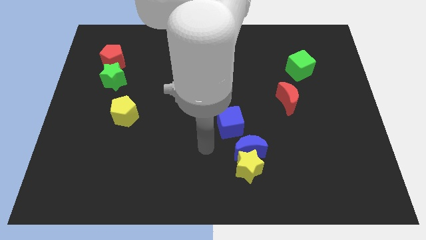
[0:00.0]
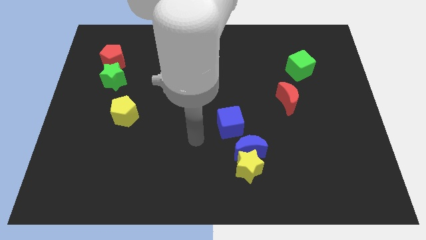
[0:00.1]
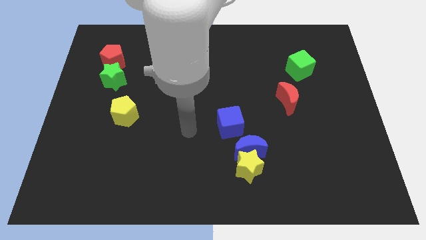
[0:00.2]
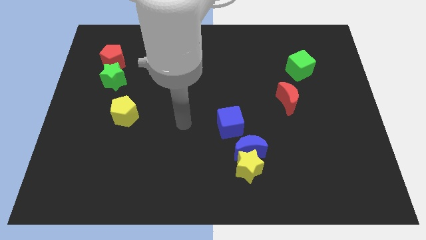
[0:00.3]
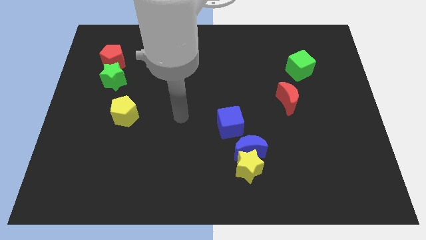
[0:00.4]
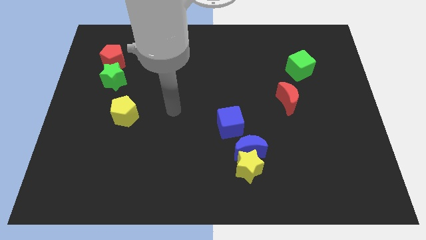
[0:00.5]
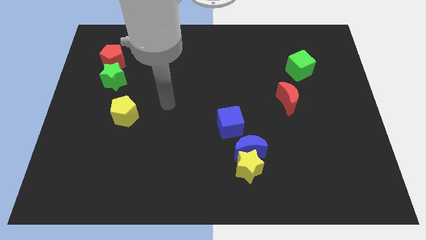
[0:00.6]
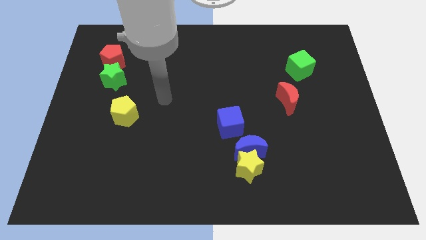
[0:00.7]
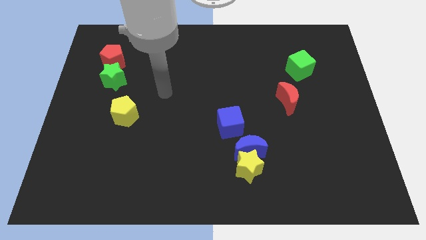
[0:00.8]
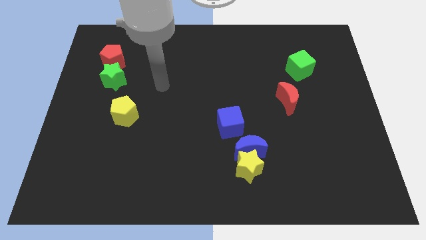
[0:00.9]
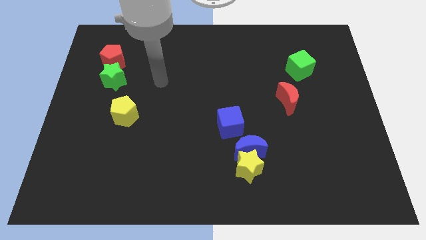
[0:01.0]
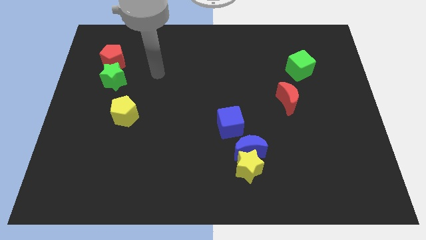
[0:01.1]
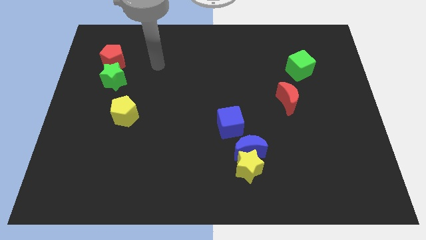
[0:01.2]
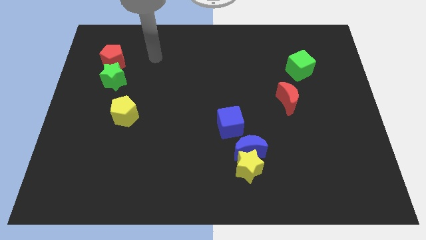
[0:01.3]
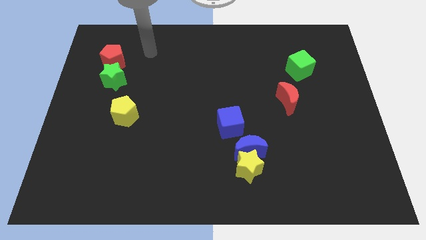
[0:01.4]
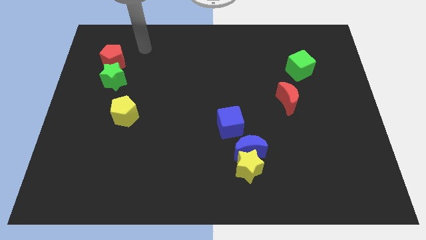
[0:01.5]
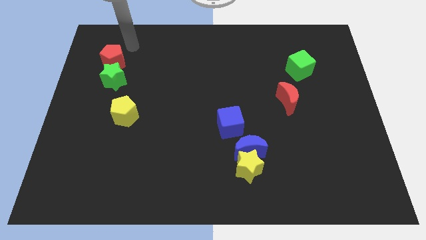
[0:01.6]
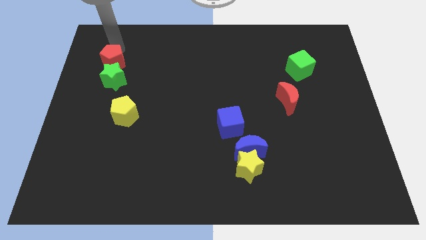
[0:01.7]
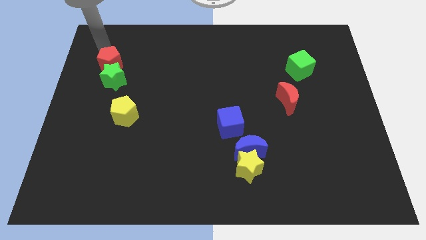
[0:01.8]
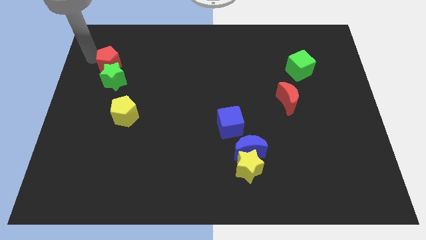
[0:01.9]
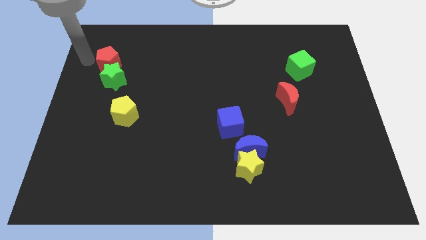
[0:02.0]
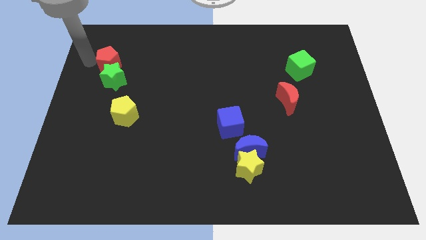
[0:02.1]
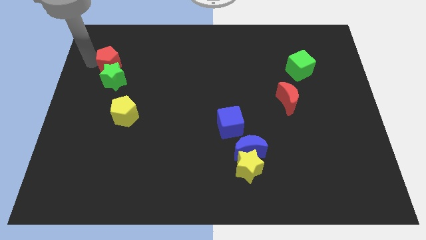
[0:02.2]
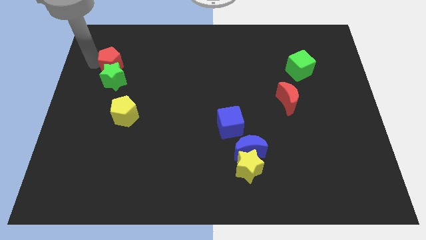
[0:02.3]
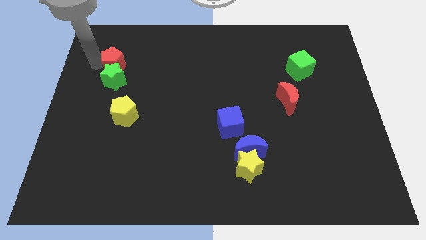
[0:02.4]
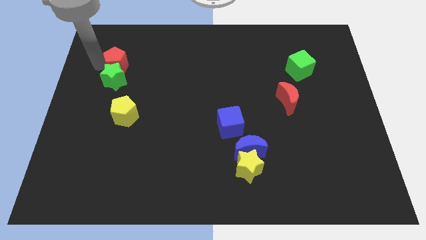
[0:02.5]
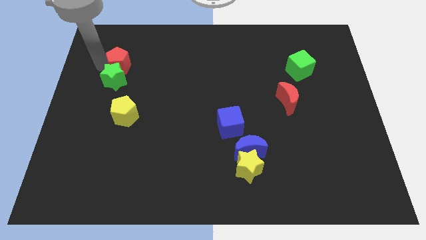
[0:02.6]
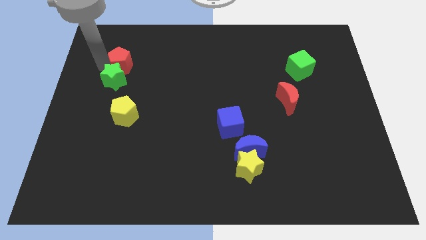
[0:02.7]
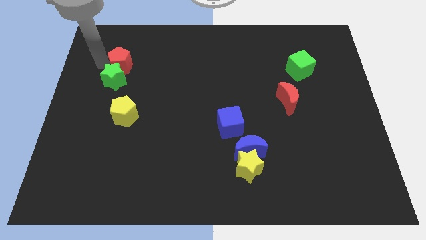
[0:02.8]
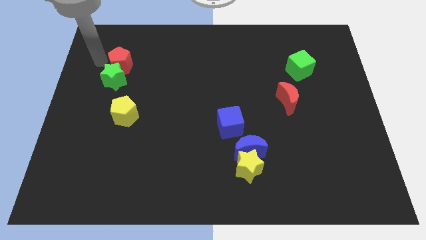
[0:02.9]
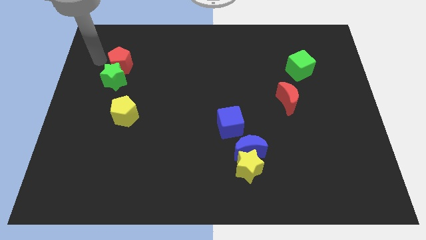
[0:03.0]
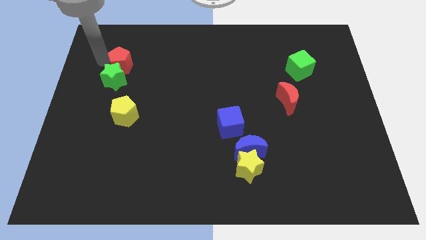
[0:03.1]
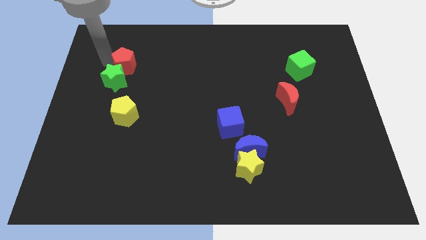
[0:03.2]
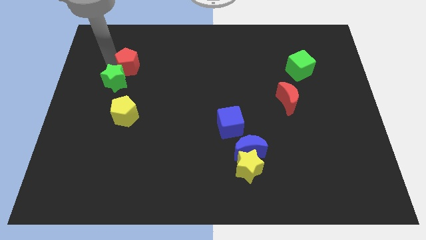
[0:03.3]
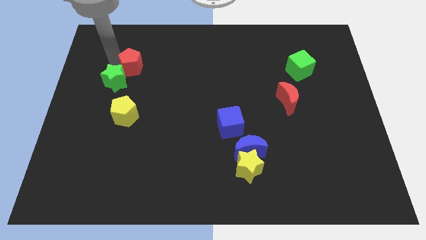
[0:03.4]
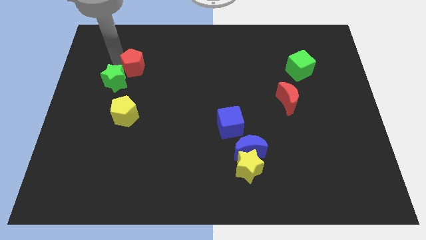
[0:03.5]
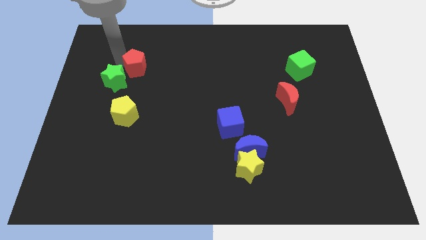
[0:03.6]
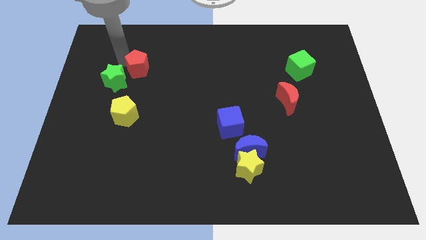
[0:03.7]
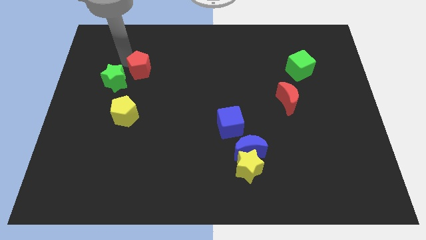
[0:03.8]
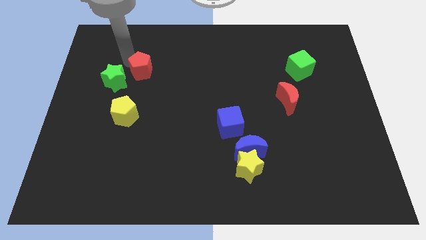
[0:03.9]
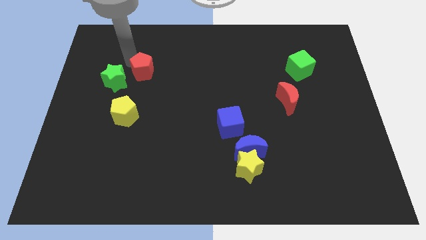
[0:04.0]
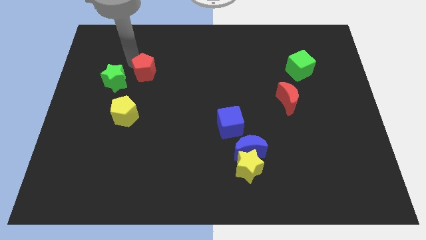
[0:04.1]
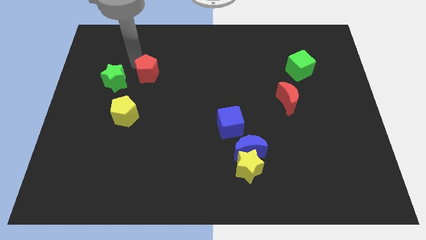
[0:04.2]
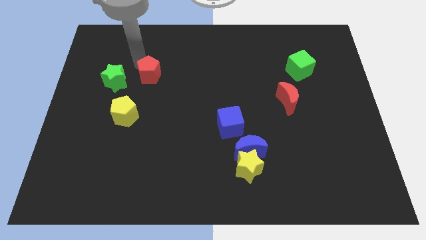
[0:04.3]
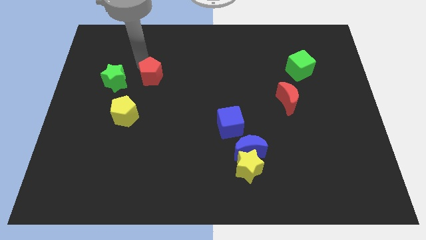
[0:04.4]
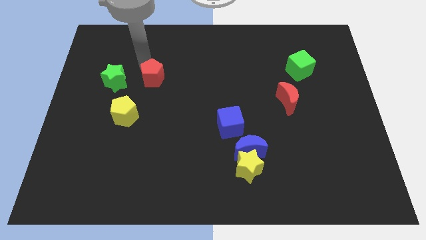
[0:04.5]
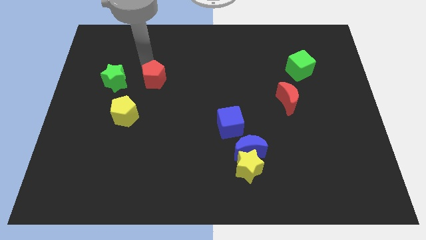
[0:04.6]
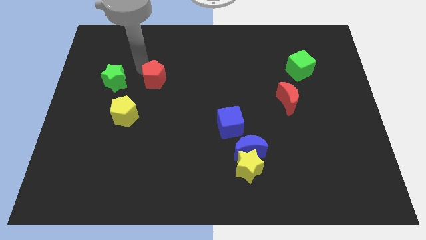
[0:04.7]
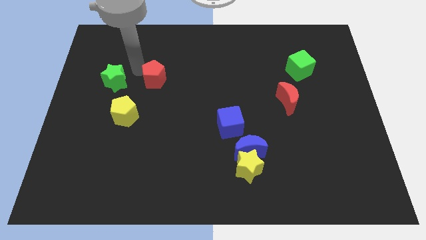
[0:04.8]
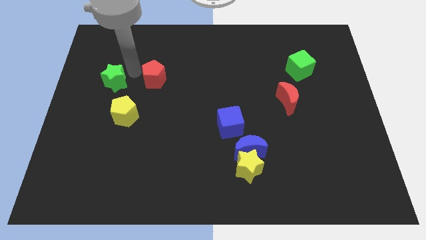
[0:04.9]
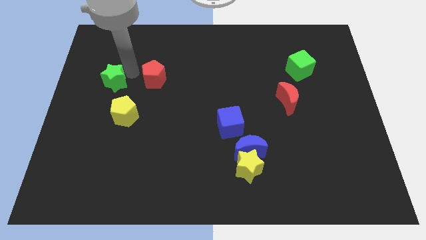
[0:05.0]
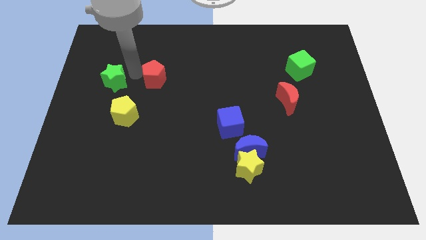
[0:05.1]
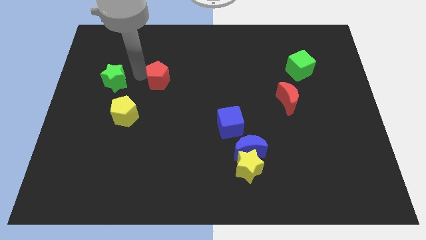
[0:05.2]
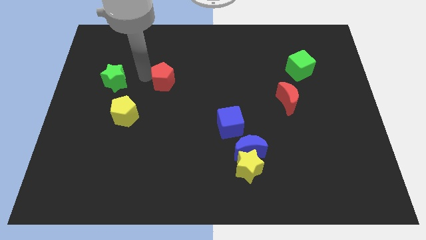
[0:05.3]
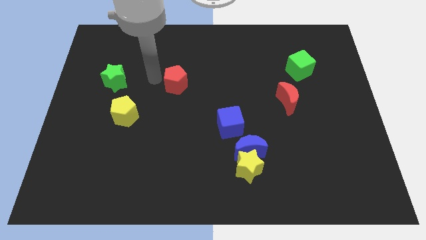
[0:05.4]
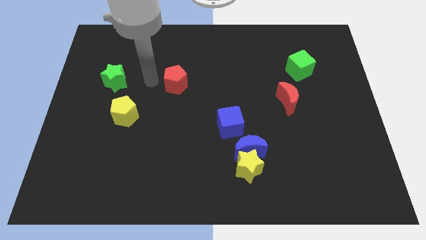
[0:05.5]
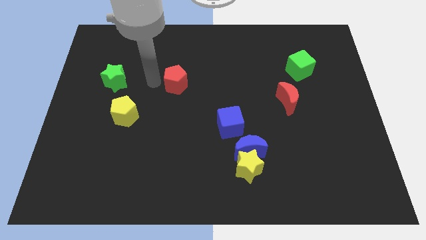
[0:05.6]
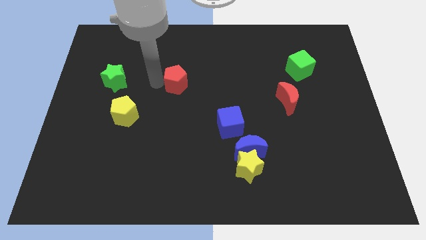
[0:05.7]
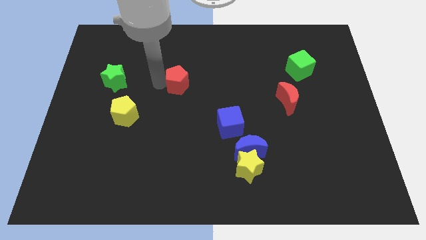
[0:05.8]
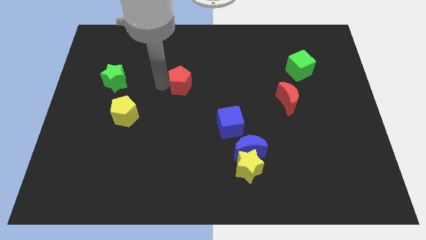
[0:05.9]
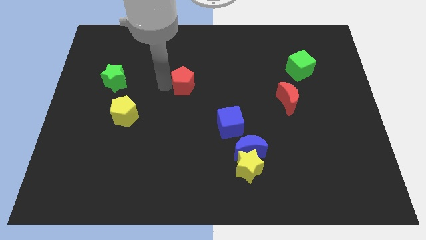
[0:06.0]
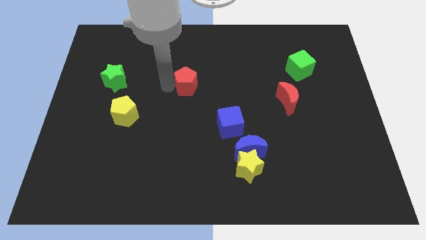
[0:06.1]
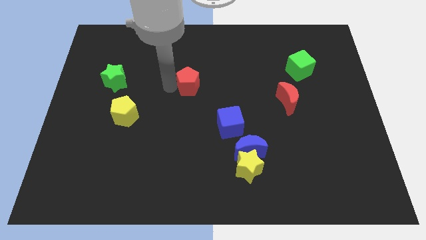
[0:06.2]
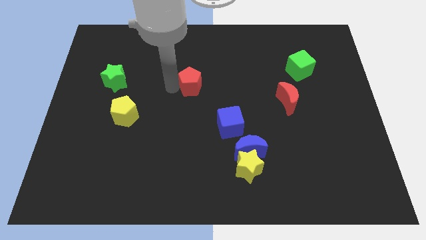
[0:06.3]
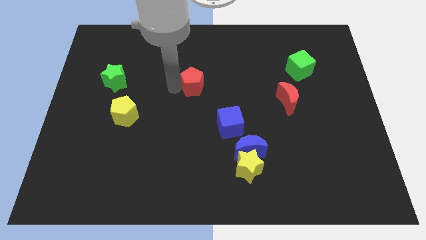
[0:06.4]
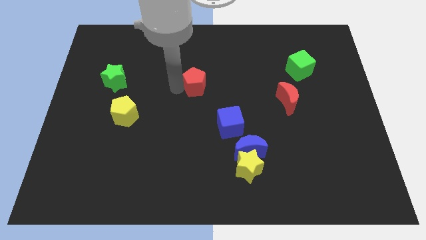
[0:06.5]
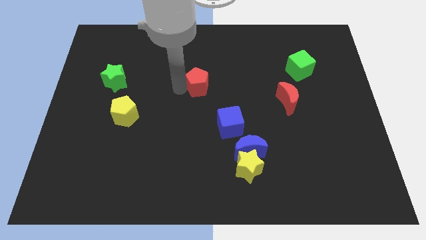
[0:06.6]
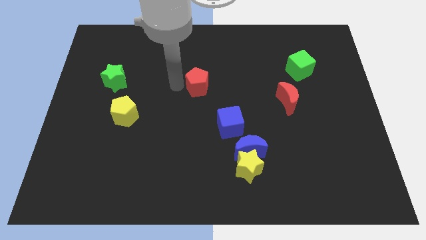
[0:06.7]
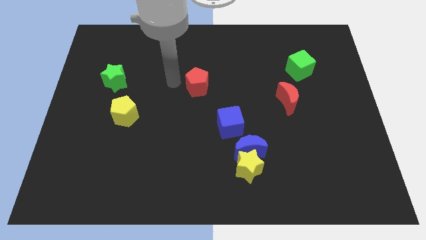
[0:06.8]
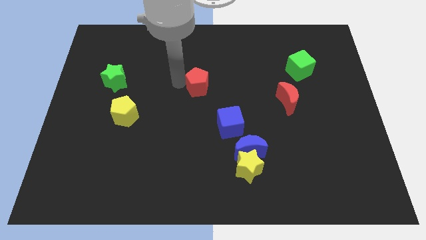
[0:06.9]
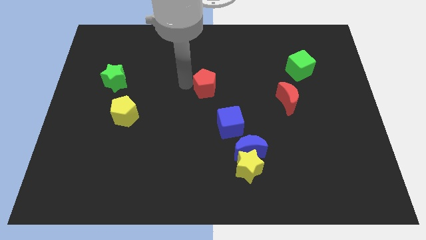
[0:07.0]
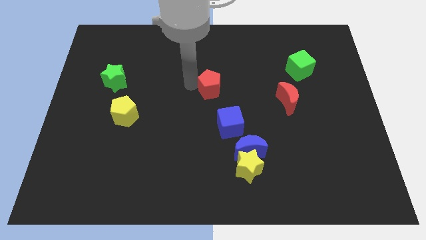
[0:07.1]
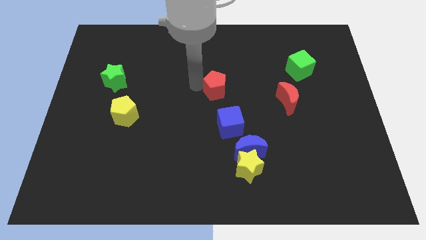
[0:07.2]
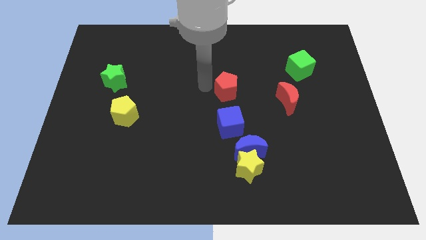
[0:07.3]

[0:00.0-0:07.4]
push the red pentagon just left of the red moon
